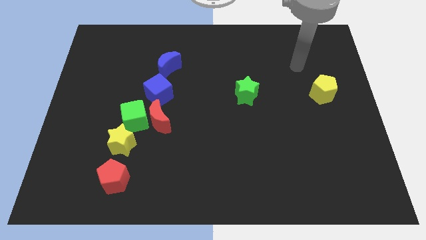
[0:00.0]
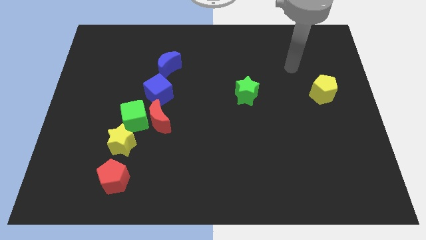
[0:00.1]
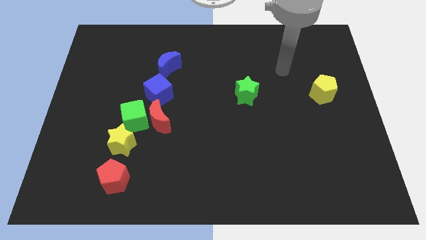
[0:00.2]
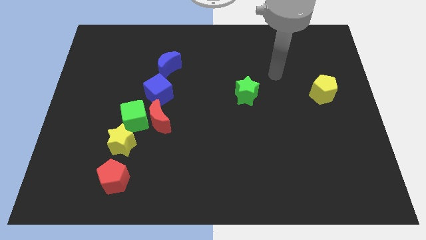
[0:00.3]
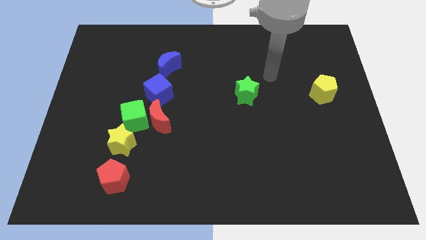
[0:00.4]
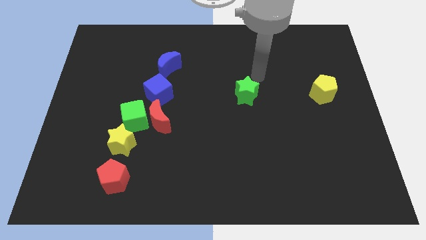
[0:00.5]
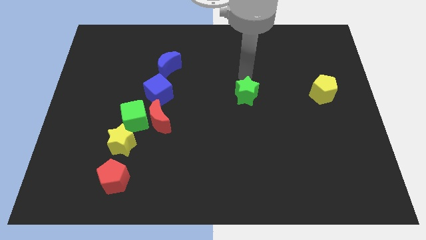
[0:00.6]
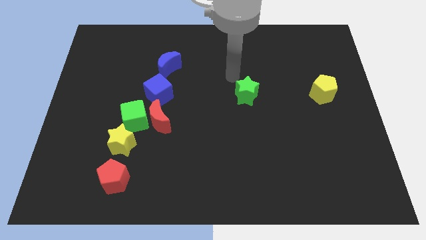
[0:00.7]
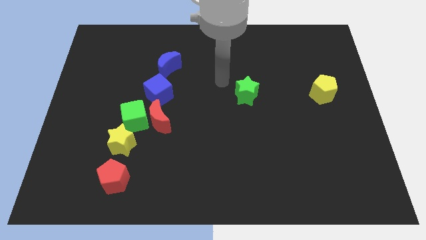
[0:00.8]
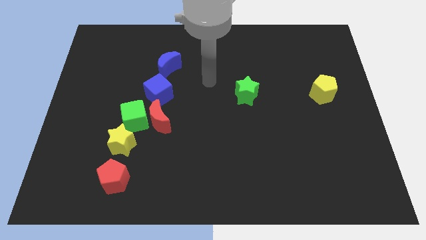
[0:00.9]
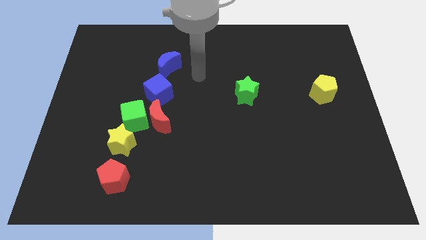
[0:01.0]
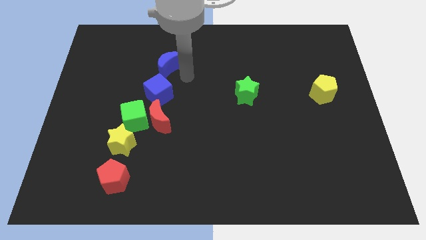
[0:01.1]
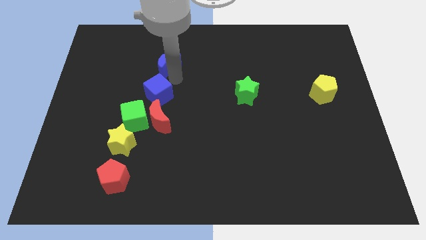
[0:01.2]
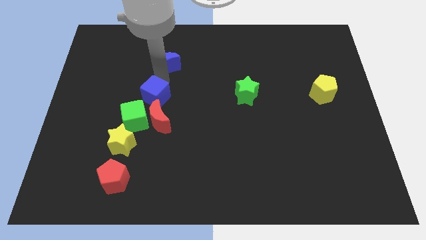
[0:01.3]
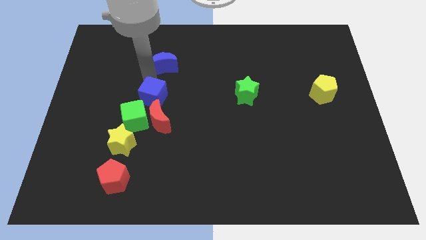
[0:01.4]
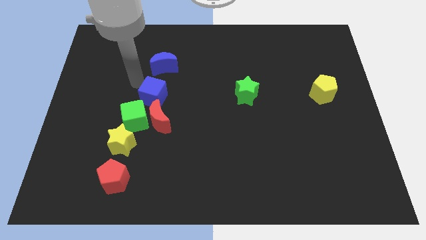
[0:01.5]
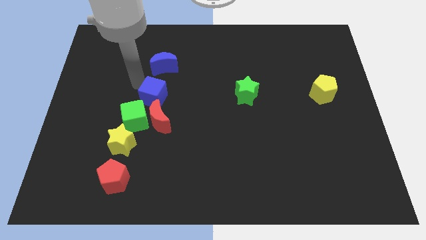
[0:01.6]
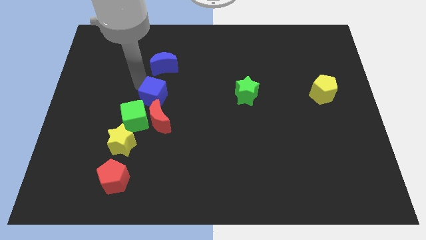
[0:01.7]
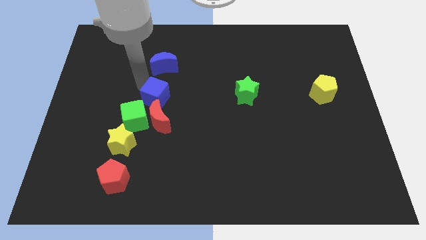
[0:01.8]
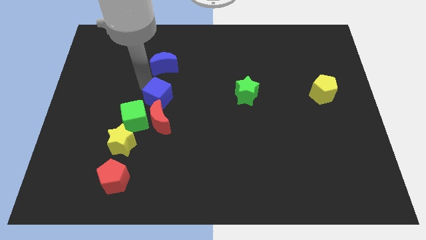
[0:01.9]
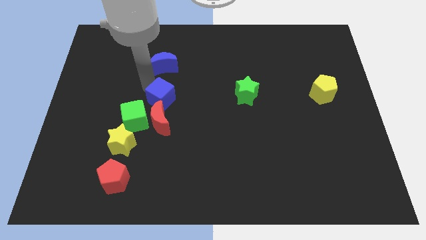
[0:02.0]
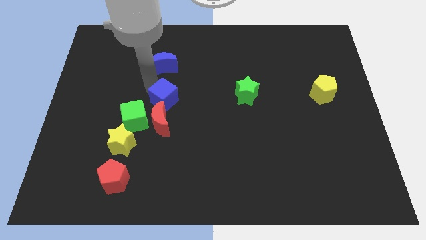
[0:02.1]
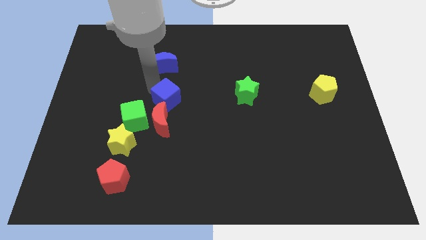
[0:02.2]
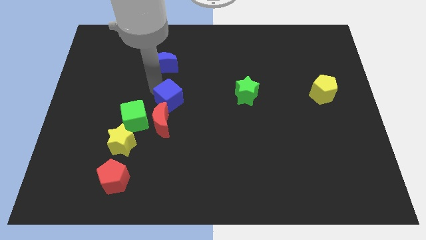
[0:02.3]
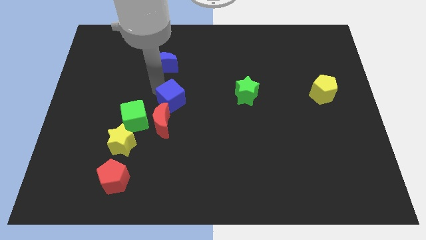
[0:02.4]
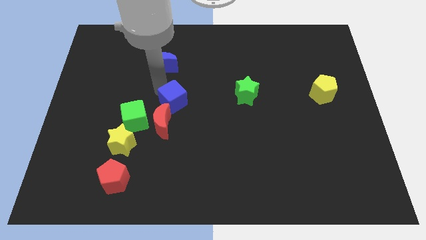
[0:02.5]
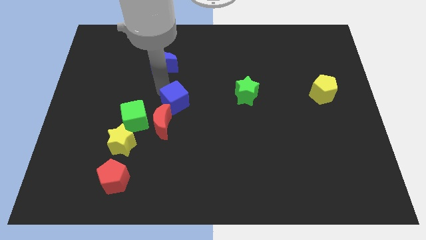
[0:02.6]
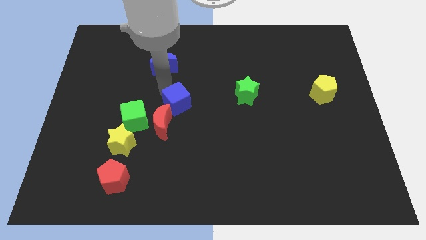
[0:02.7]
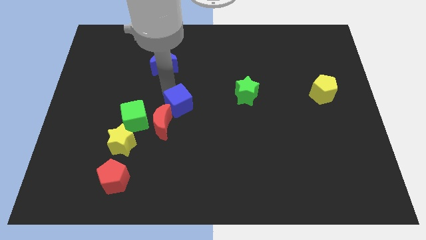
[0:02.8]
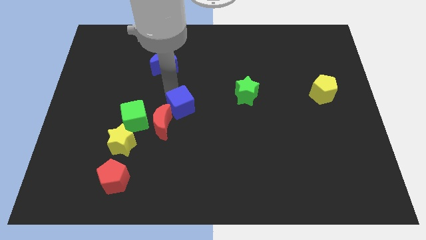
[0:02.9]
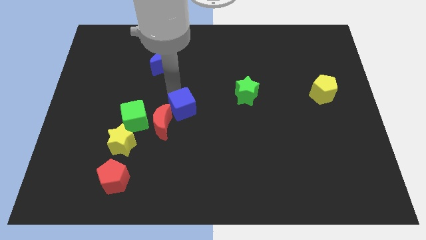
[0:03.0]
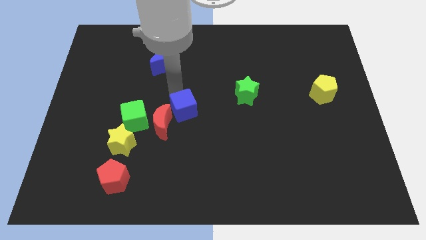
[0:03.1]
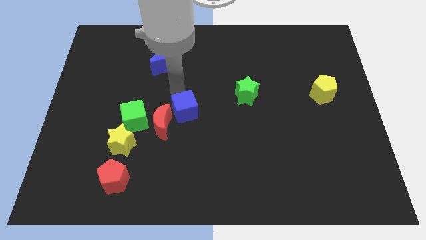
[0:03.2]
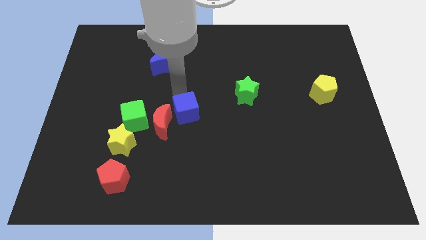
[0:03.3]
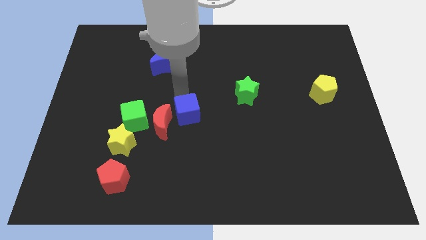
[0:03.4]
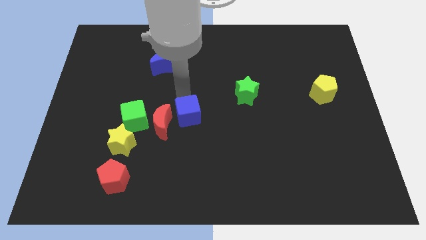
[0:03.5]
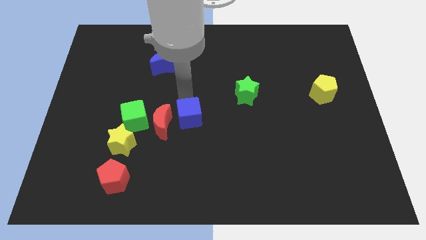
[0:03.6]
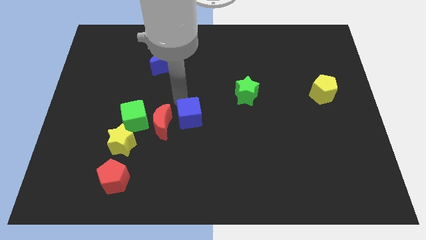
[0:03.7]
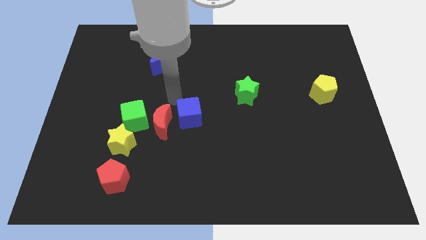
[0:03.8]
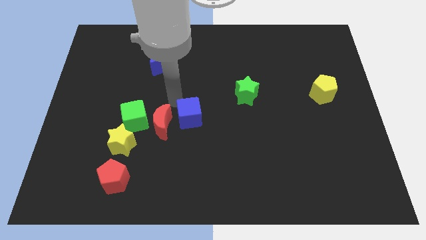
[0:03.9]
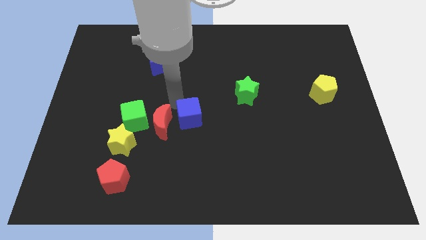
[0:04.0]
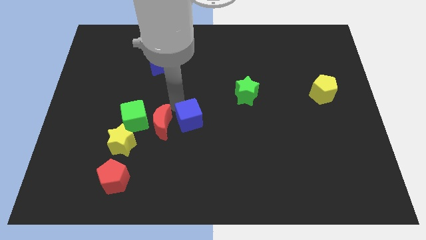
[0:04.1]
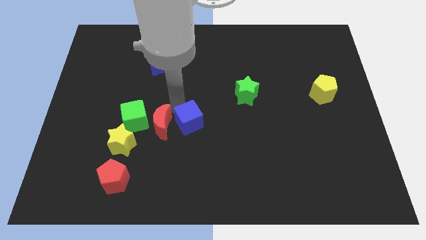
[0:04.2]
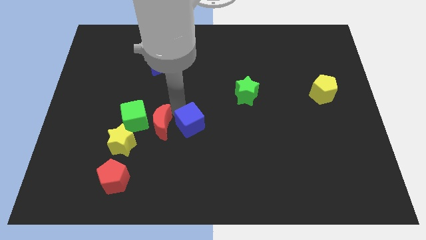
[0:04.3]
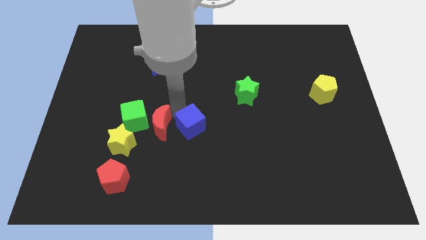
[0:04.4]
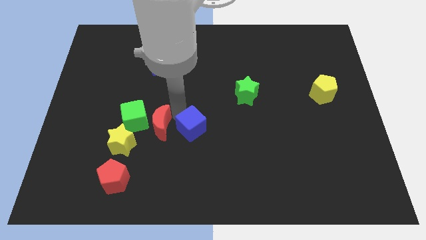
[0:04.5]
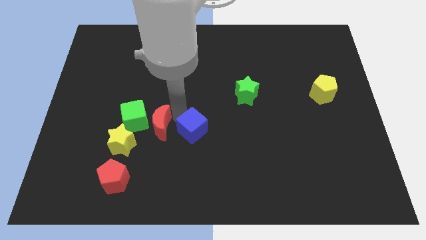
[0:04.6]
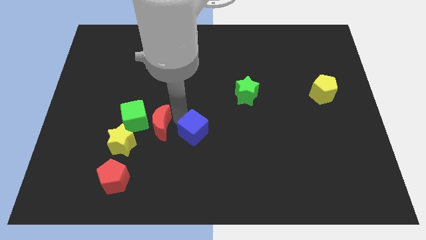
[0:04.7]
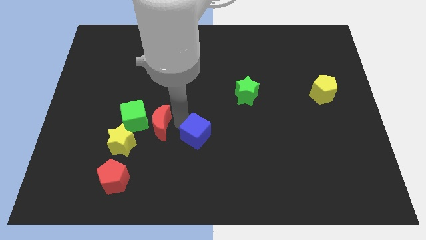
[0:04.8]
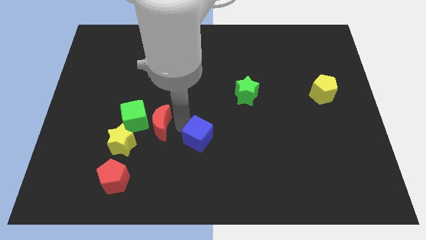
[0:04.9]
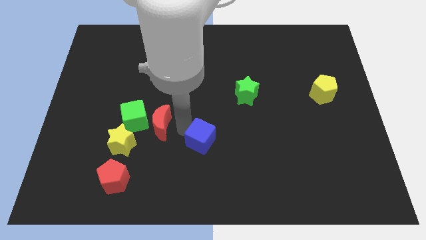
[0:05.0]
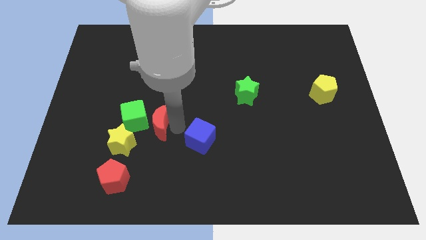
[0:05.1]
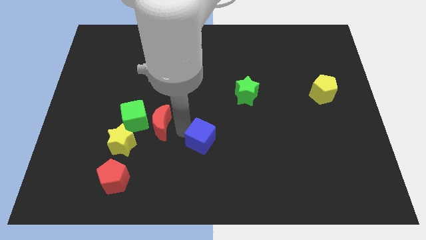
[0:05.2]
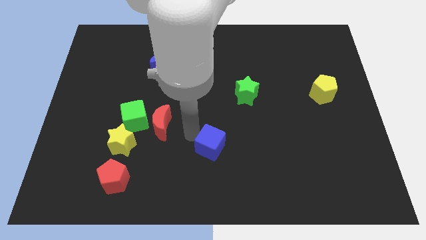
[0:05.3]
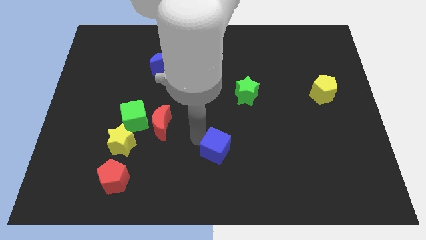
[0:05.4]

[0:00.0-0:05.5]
move the blue cube down and to the right

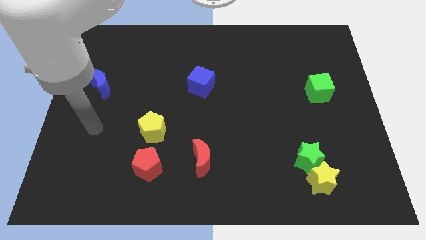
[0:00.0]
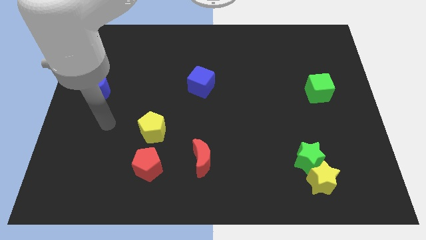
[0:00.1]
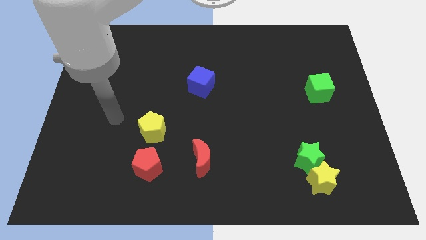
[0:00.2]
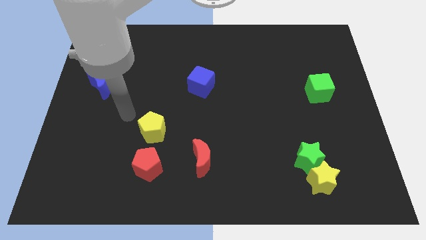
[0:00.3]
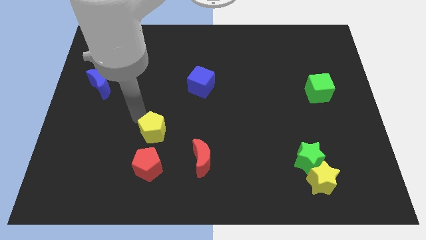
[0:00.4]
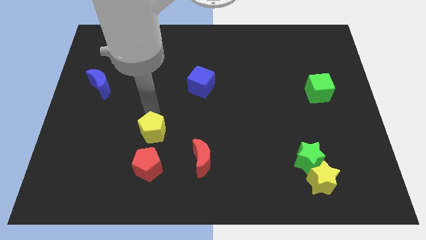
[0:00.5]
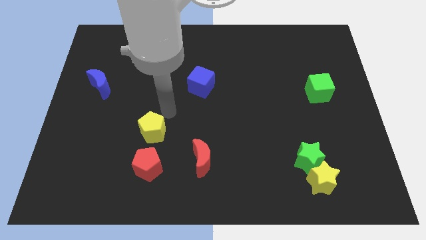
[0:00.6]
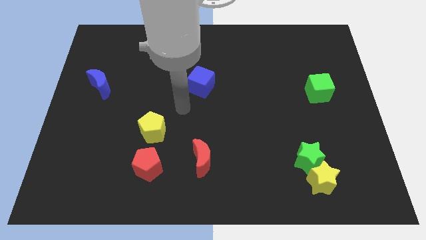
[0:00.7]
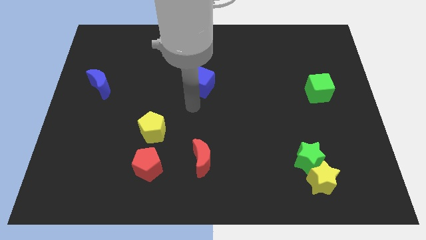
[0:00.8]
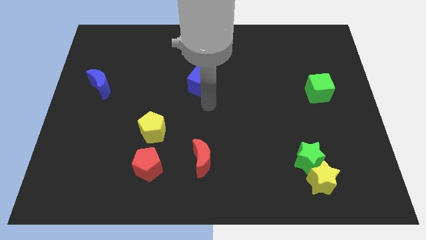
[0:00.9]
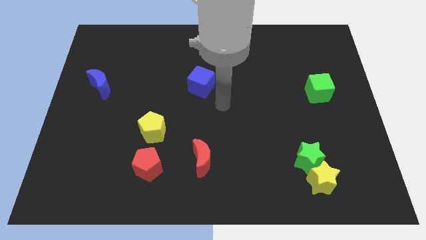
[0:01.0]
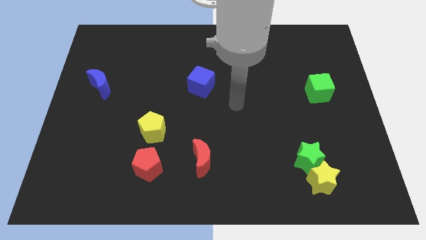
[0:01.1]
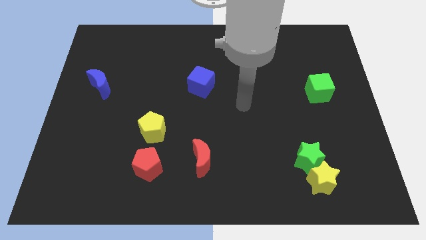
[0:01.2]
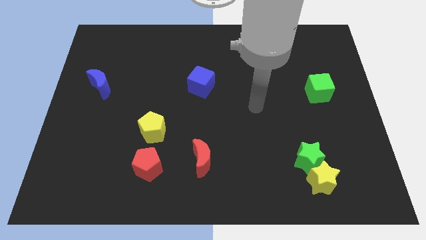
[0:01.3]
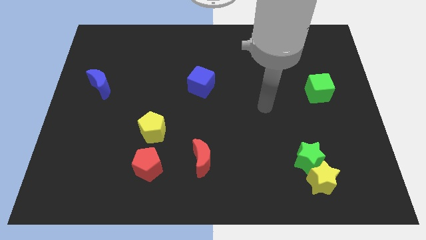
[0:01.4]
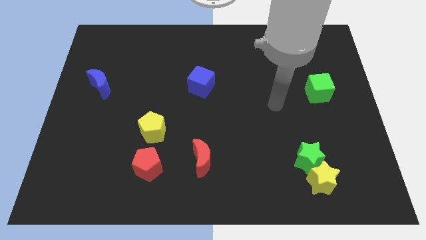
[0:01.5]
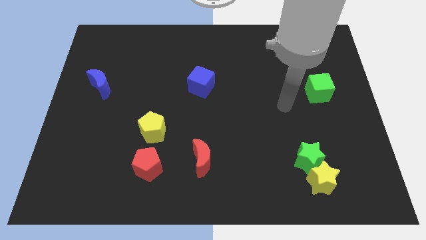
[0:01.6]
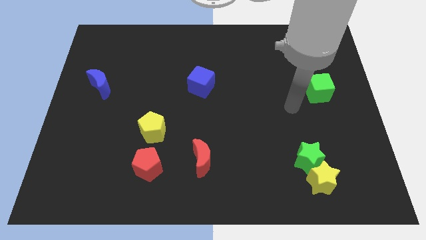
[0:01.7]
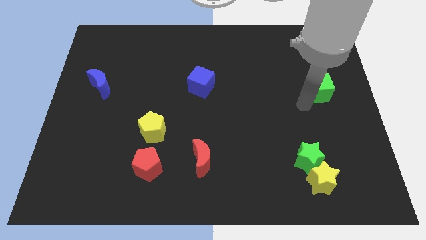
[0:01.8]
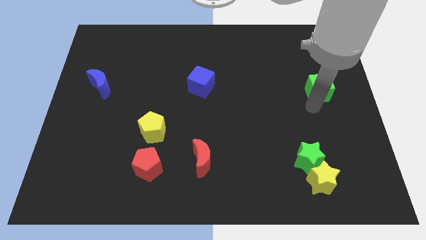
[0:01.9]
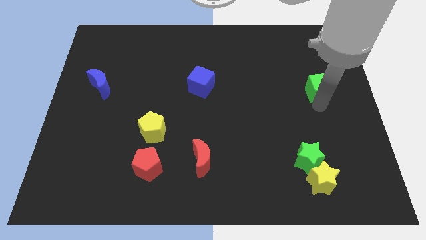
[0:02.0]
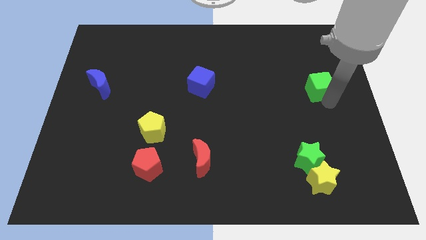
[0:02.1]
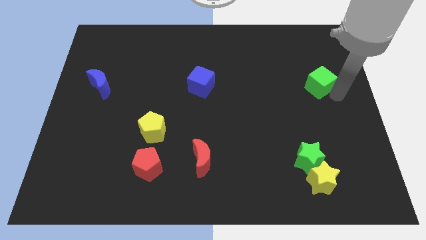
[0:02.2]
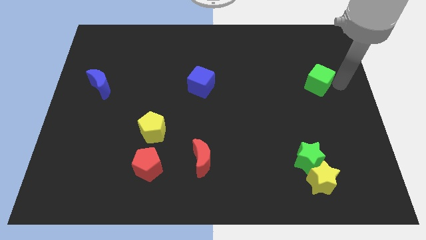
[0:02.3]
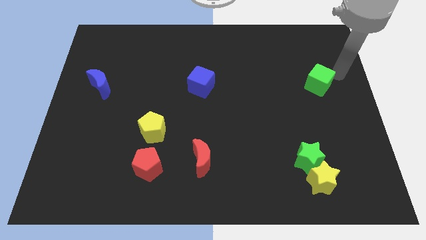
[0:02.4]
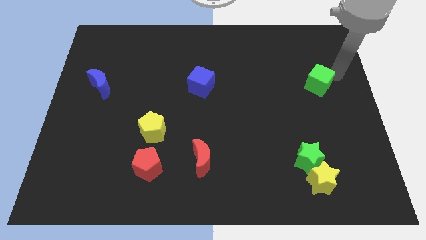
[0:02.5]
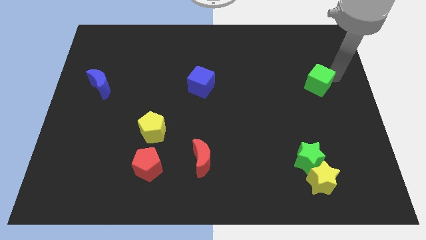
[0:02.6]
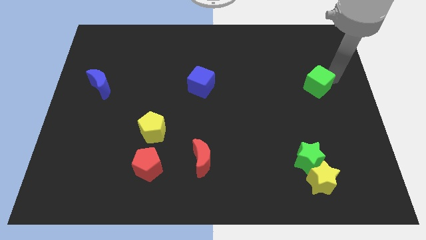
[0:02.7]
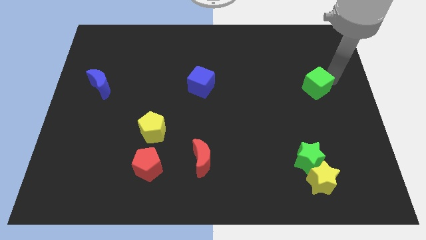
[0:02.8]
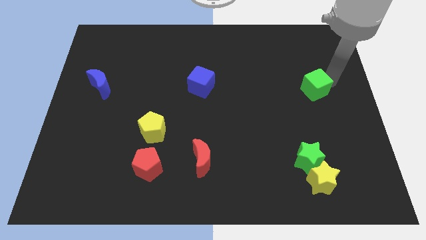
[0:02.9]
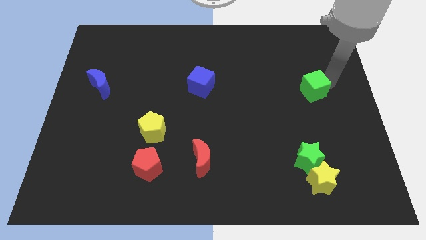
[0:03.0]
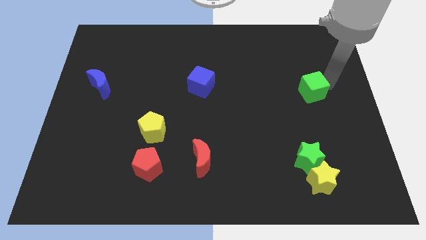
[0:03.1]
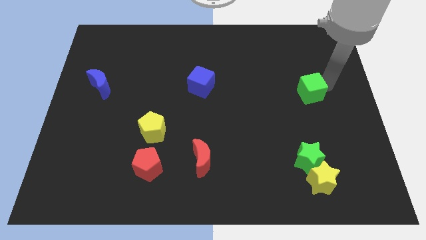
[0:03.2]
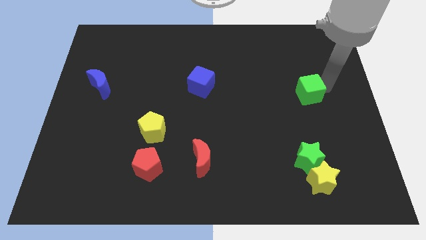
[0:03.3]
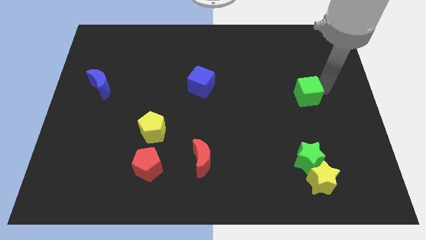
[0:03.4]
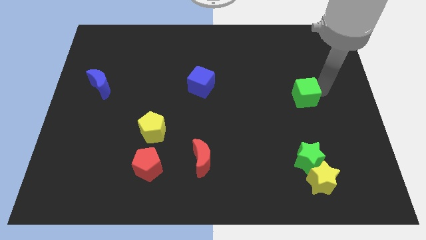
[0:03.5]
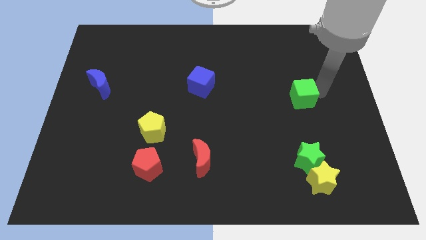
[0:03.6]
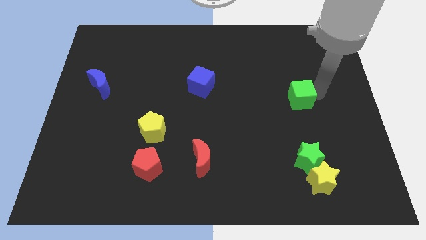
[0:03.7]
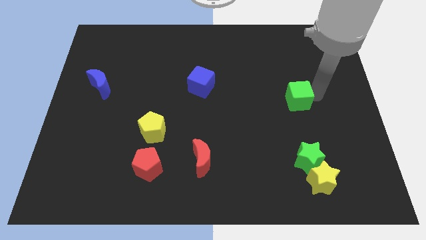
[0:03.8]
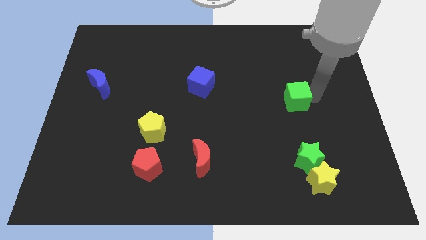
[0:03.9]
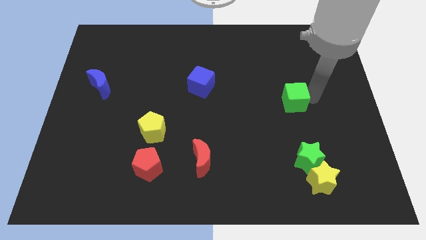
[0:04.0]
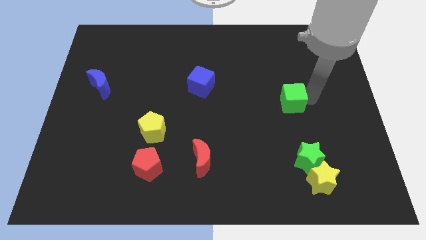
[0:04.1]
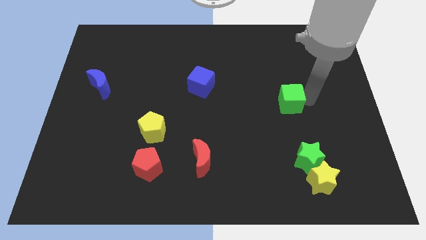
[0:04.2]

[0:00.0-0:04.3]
slide the green cube slightly left
